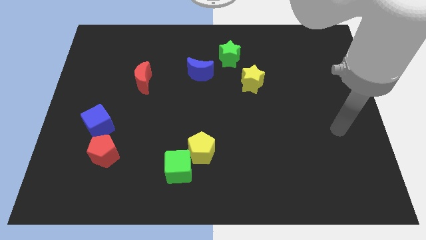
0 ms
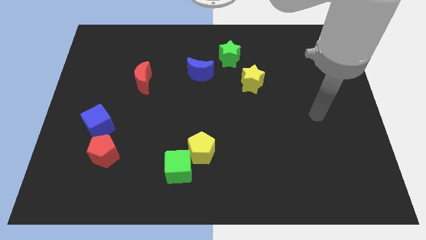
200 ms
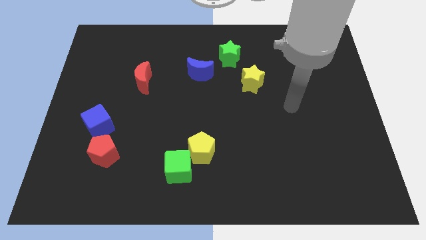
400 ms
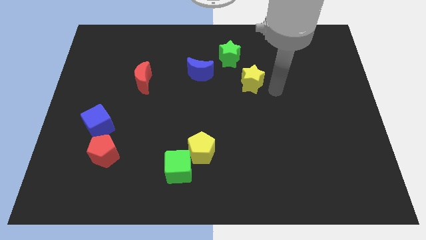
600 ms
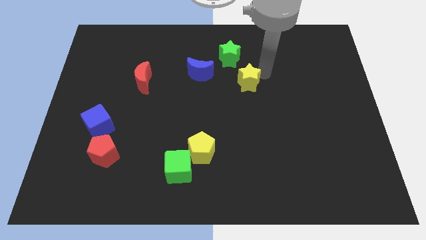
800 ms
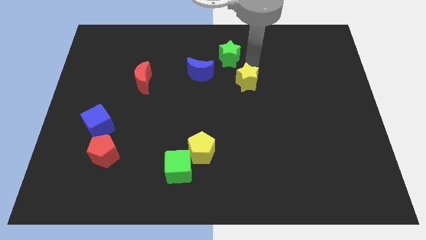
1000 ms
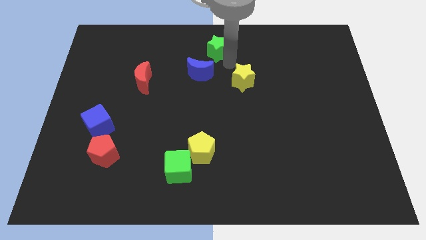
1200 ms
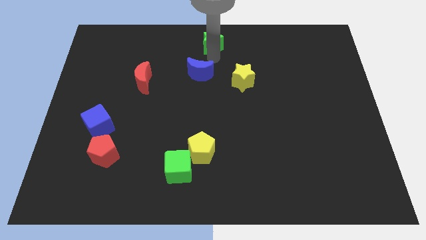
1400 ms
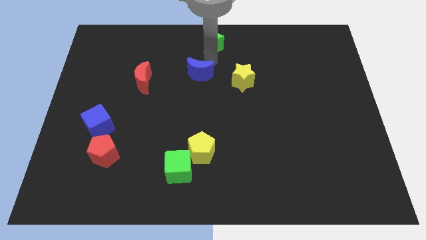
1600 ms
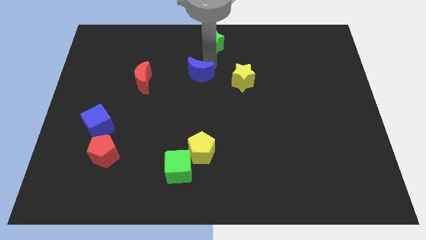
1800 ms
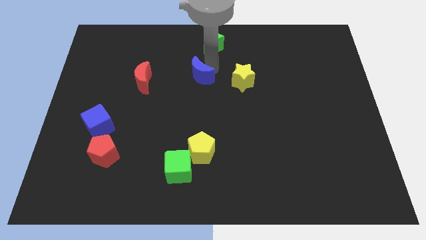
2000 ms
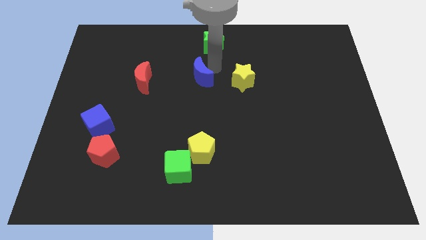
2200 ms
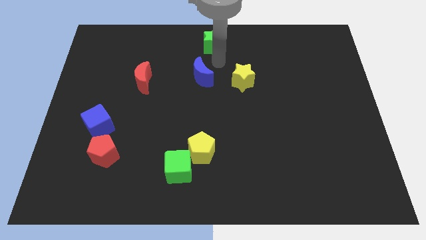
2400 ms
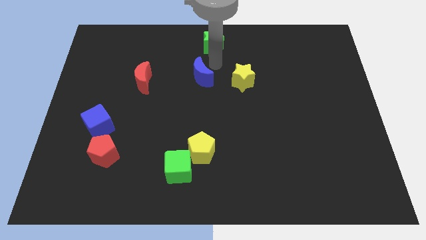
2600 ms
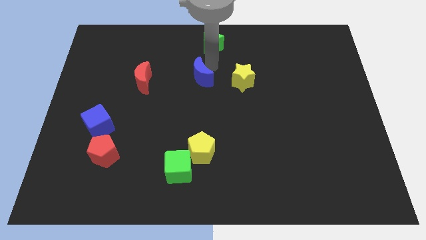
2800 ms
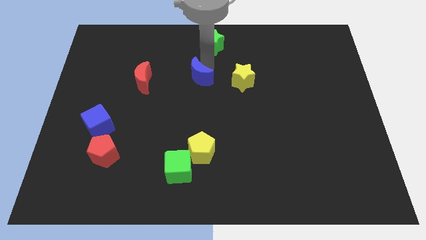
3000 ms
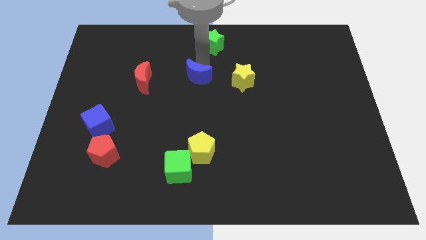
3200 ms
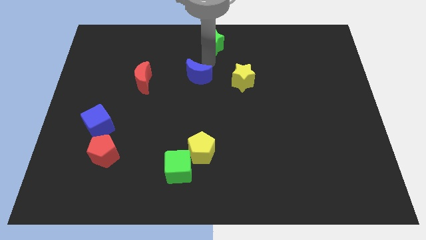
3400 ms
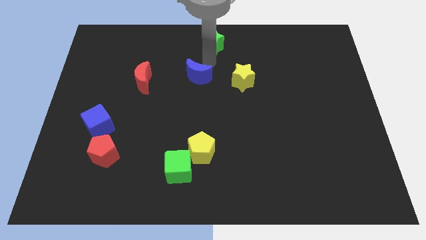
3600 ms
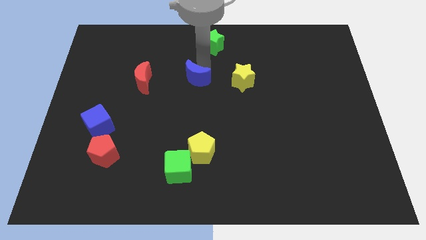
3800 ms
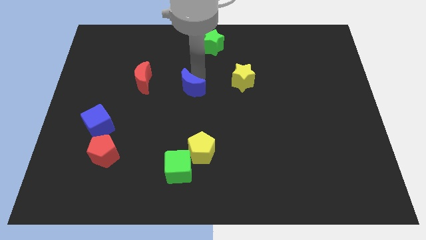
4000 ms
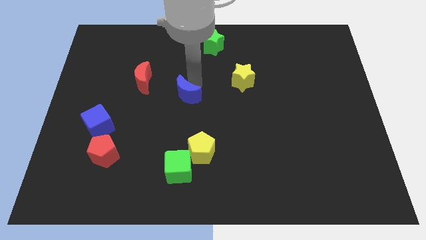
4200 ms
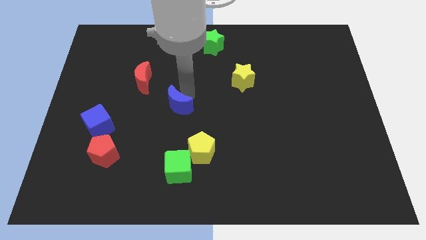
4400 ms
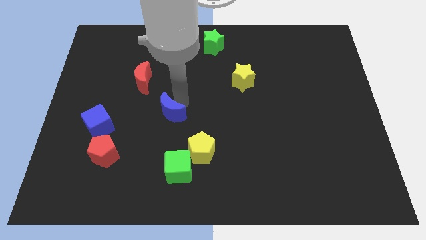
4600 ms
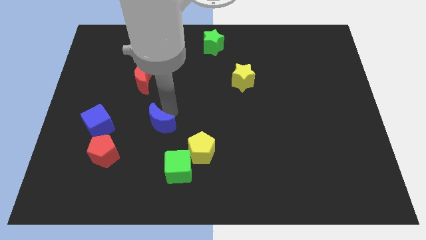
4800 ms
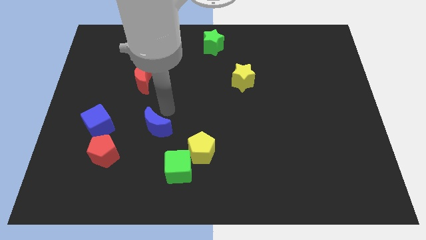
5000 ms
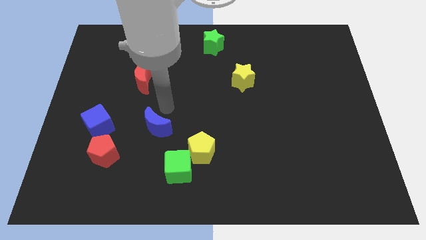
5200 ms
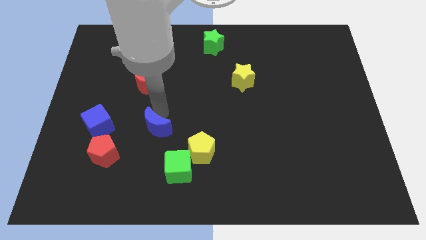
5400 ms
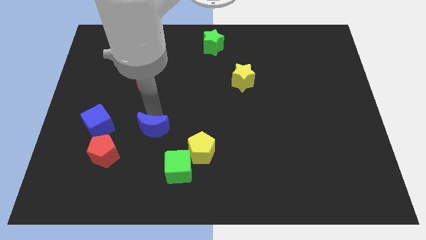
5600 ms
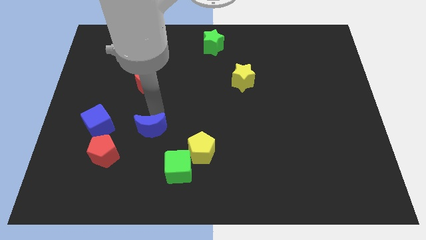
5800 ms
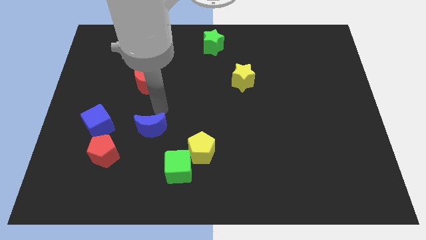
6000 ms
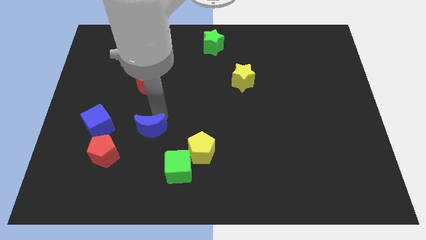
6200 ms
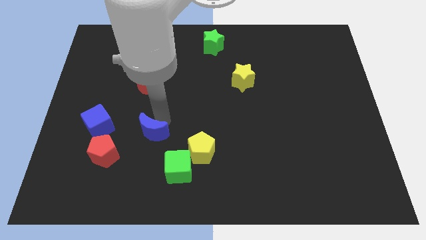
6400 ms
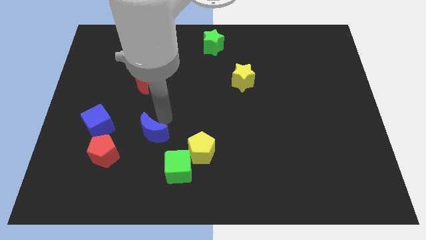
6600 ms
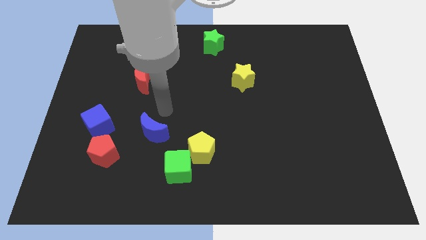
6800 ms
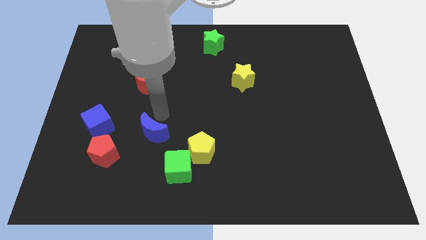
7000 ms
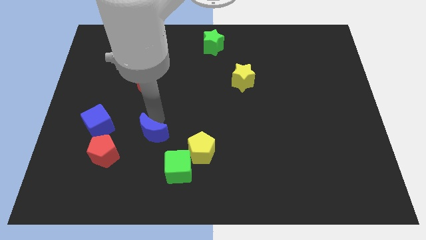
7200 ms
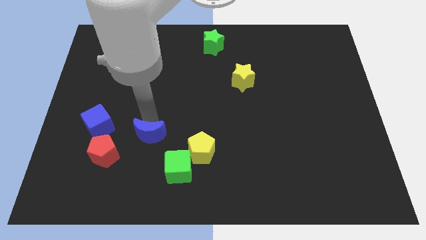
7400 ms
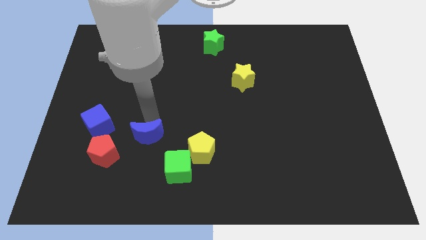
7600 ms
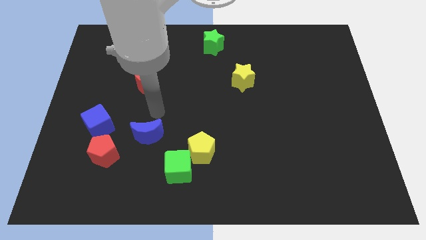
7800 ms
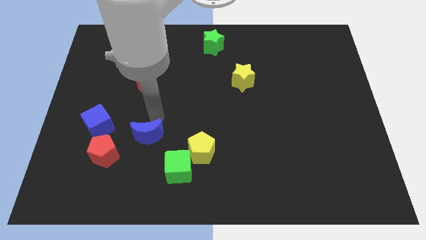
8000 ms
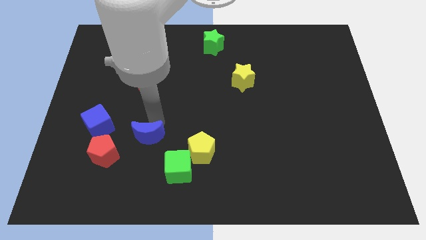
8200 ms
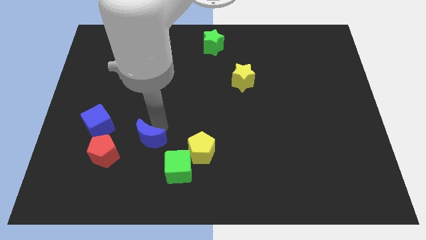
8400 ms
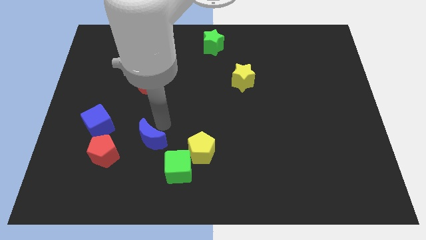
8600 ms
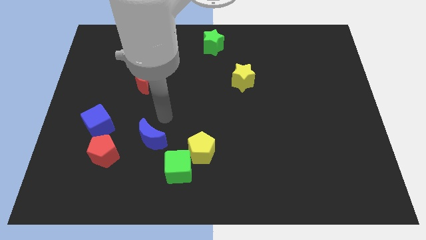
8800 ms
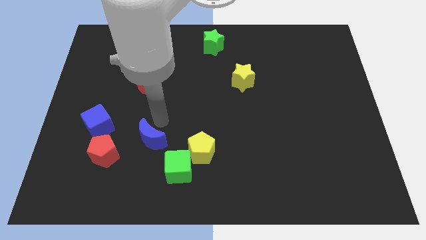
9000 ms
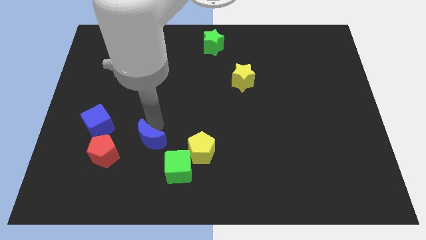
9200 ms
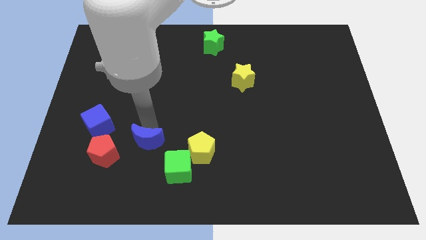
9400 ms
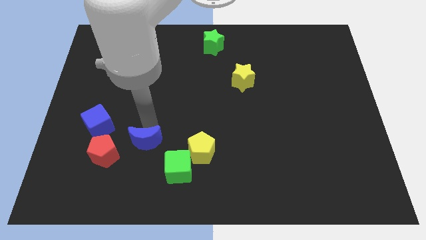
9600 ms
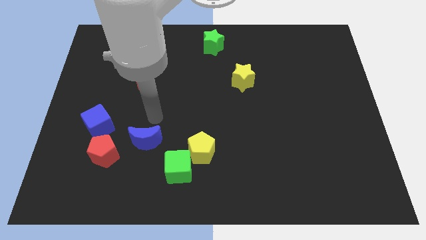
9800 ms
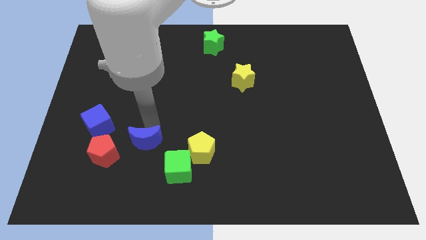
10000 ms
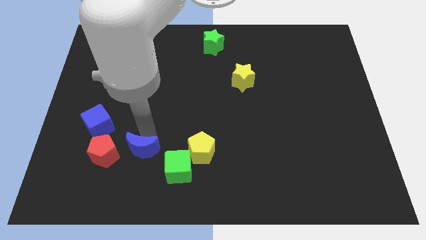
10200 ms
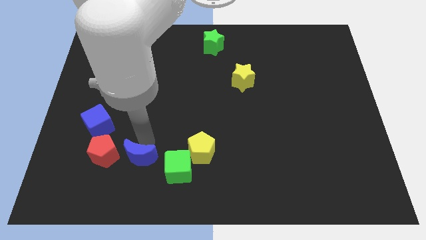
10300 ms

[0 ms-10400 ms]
slide the blue moon diagonally down and to the right of the red pentagon

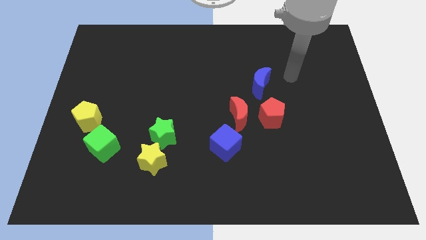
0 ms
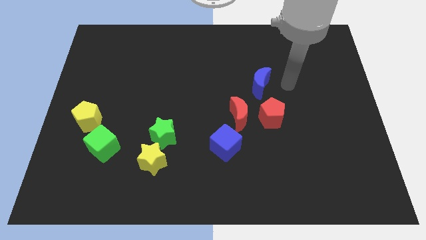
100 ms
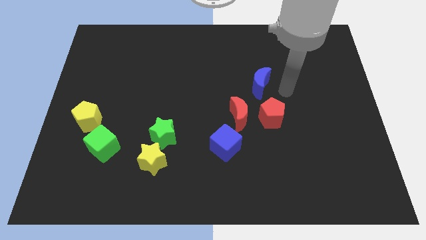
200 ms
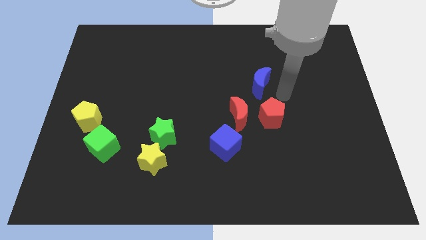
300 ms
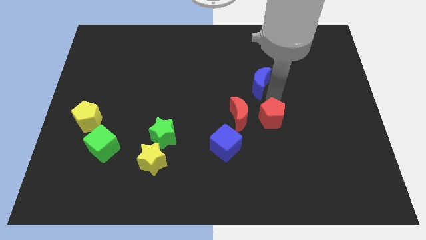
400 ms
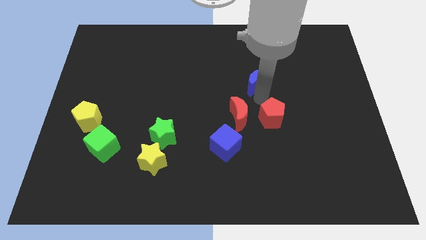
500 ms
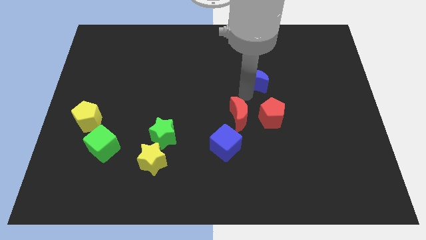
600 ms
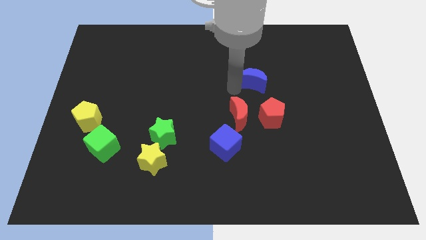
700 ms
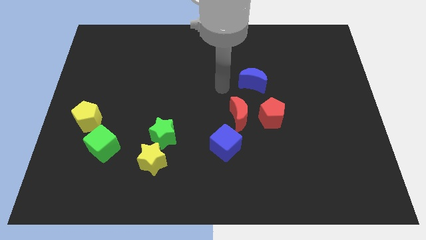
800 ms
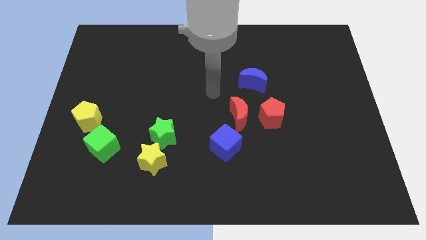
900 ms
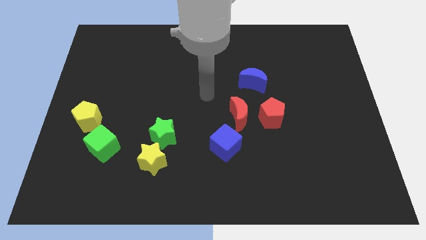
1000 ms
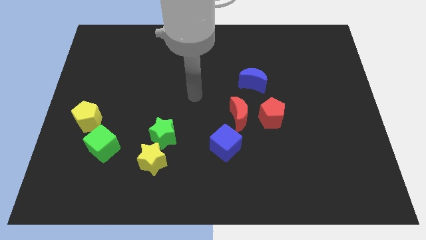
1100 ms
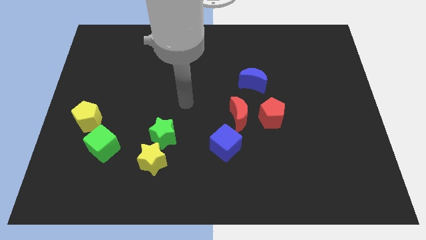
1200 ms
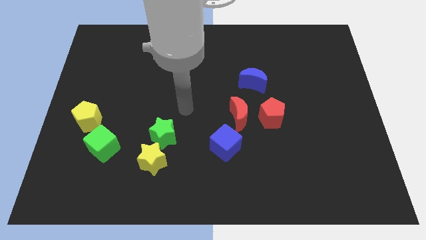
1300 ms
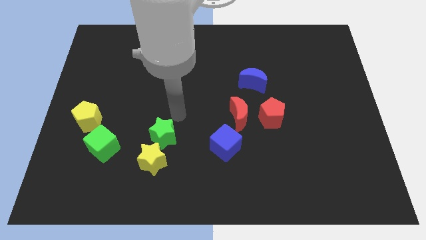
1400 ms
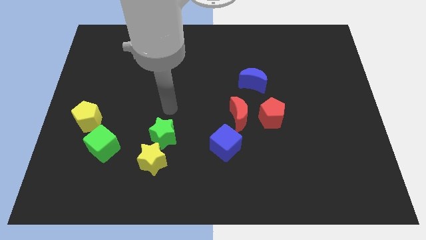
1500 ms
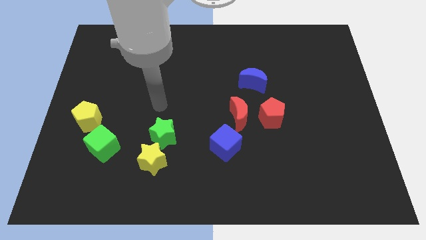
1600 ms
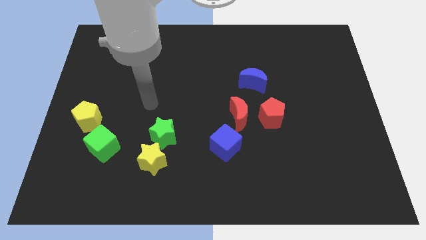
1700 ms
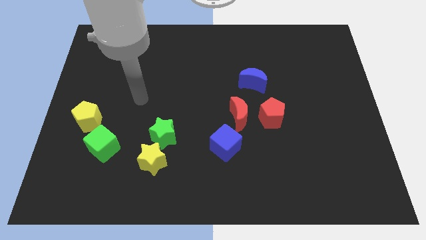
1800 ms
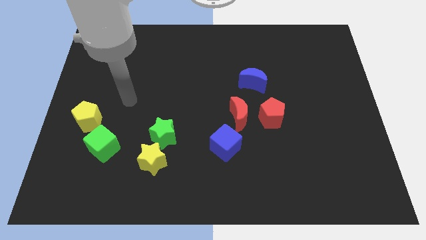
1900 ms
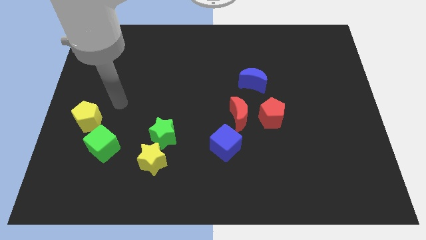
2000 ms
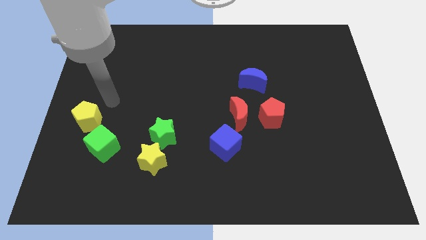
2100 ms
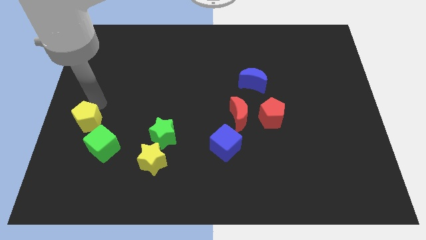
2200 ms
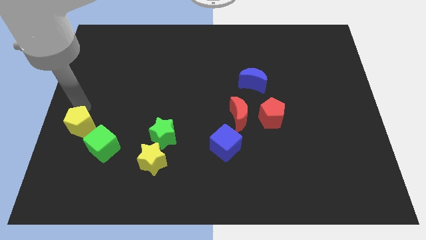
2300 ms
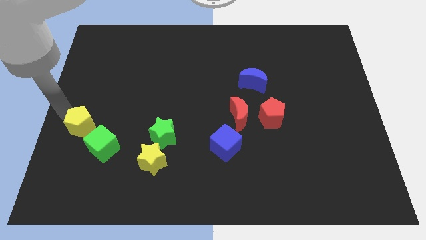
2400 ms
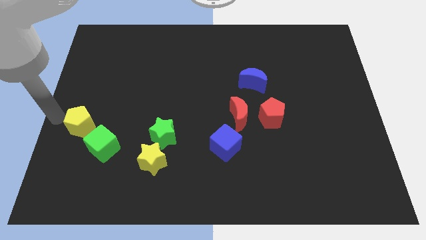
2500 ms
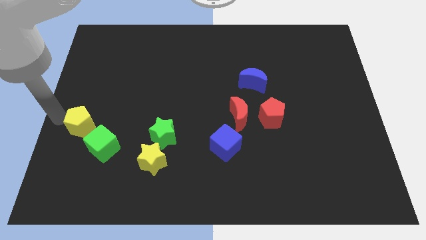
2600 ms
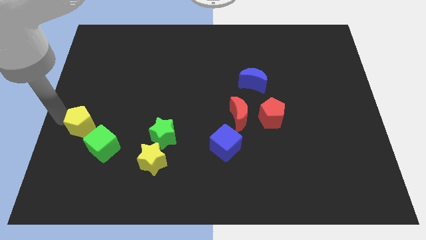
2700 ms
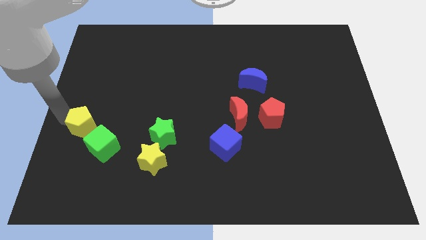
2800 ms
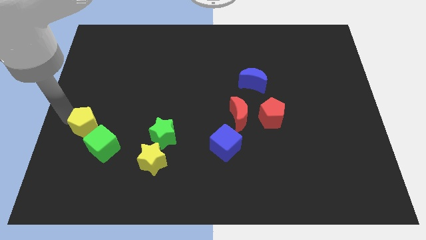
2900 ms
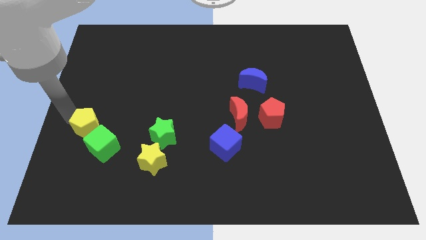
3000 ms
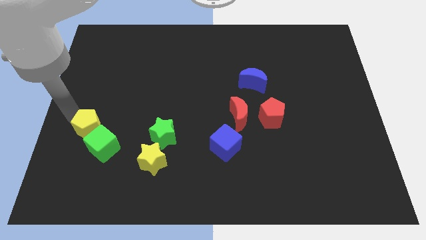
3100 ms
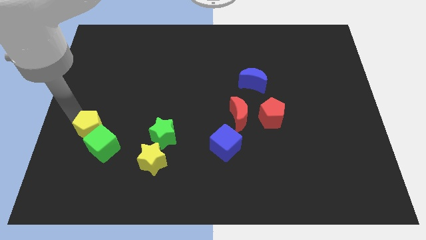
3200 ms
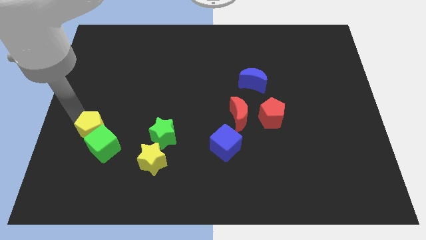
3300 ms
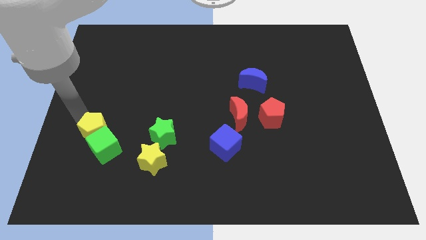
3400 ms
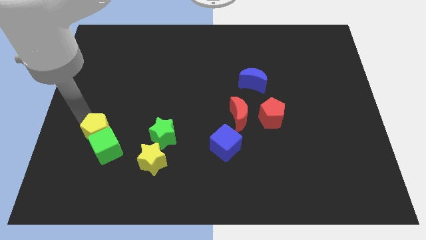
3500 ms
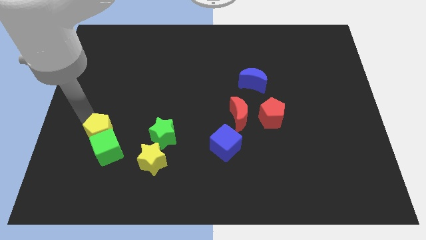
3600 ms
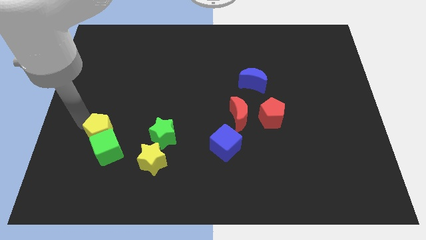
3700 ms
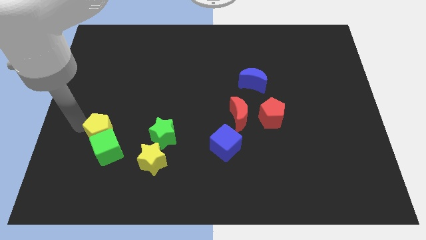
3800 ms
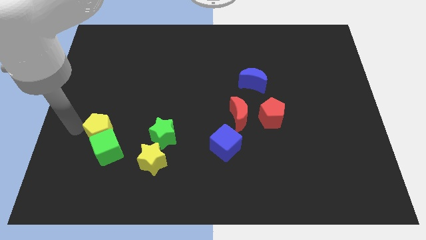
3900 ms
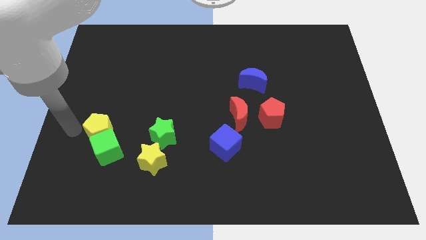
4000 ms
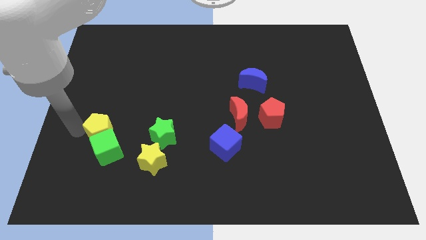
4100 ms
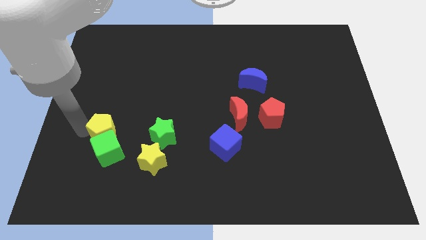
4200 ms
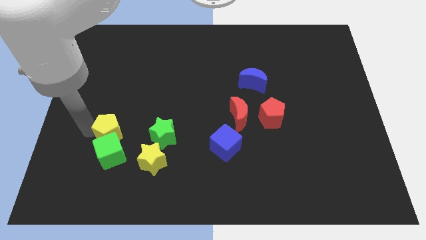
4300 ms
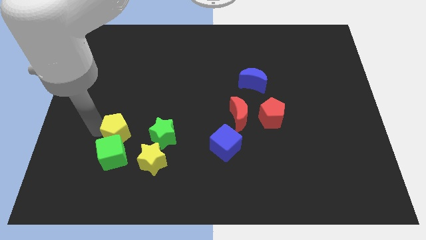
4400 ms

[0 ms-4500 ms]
push the yellow pentagon to the top left of the yellow star
